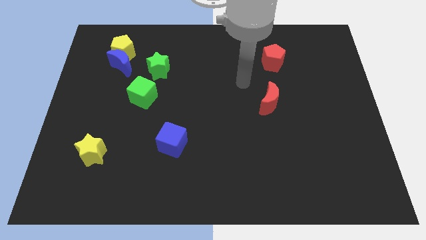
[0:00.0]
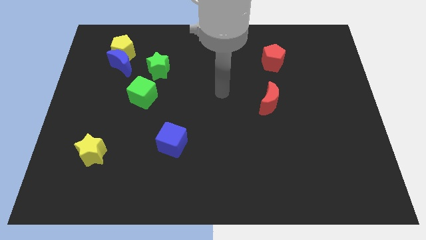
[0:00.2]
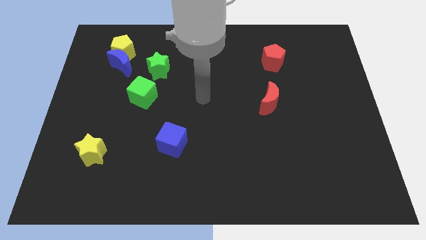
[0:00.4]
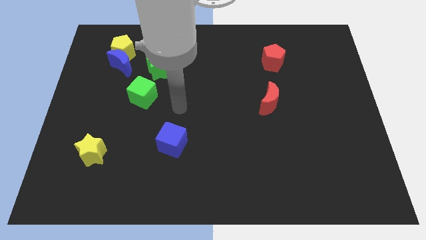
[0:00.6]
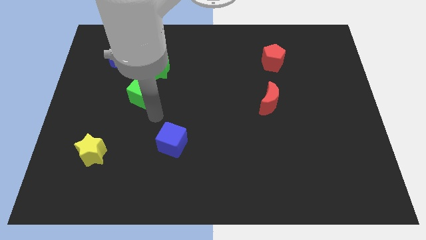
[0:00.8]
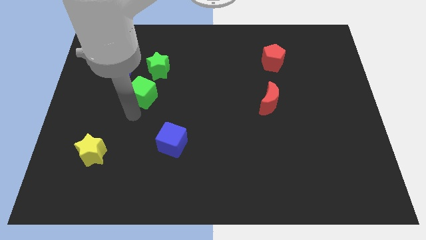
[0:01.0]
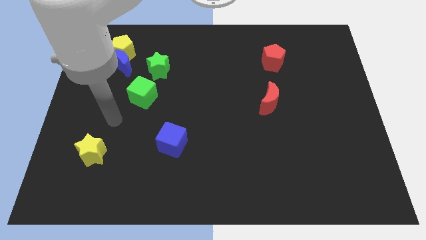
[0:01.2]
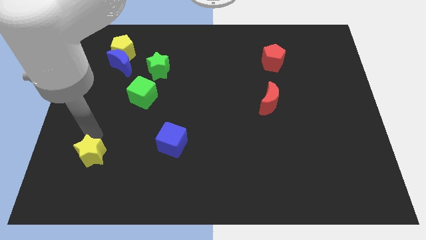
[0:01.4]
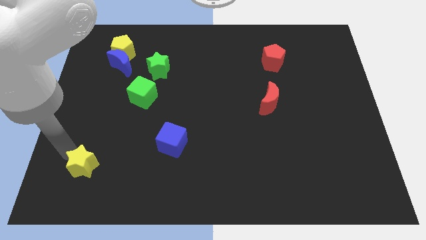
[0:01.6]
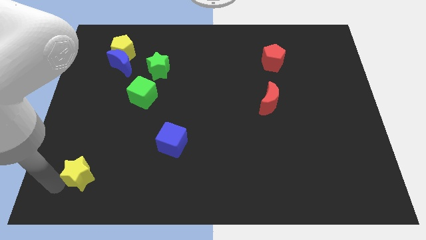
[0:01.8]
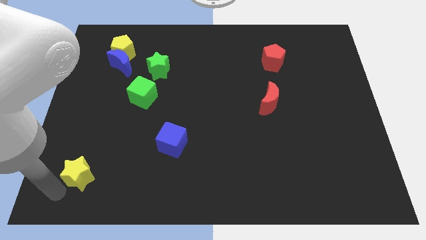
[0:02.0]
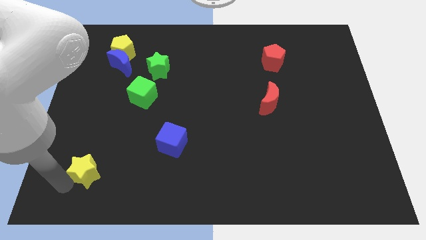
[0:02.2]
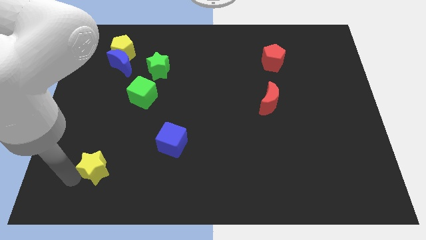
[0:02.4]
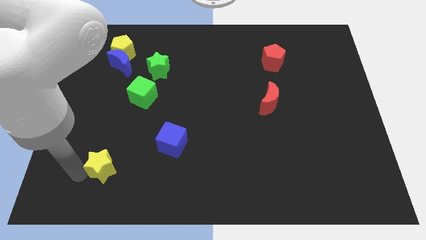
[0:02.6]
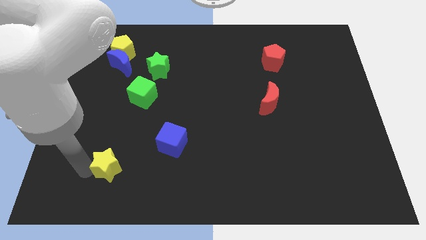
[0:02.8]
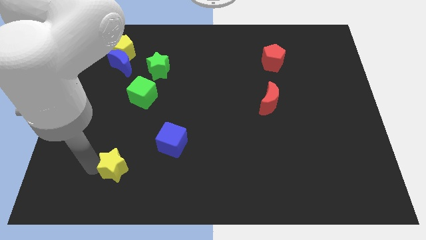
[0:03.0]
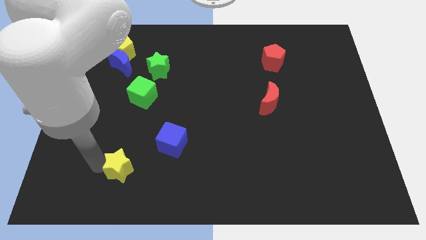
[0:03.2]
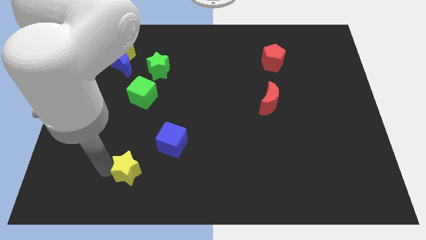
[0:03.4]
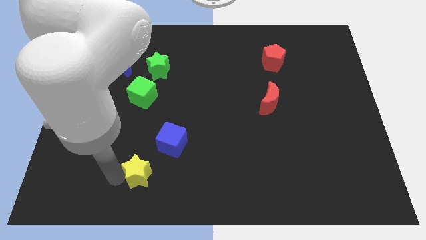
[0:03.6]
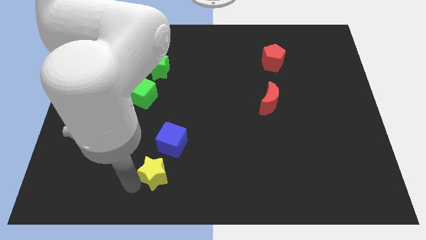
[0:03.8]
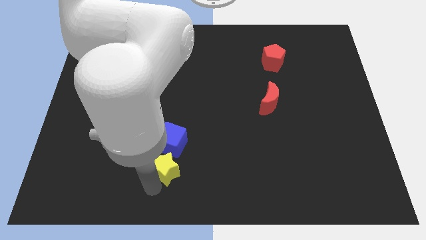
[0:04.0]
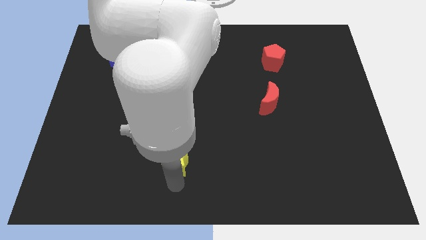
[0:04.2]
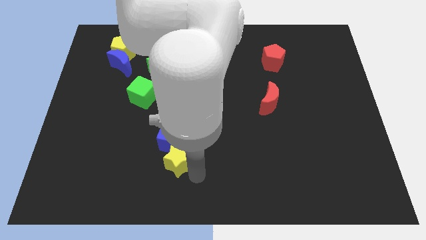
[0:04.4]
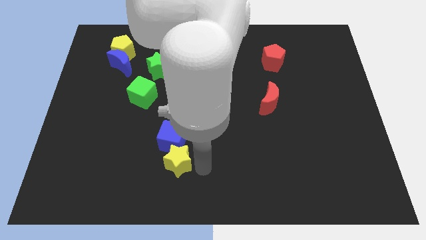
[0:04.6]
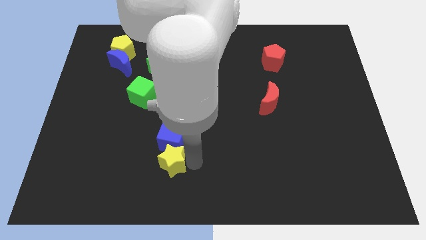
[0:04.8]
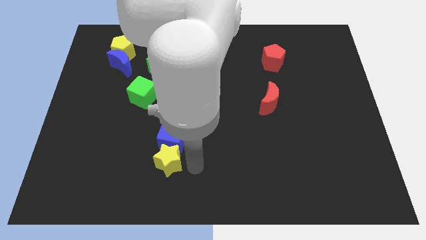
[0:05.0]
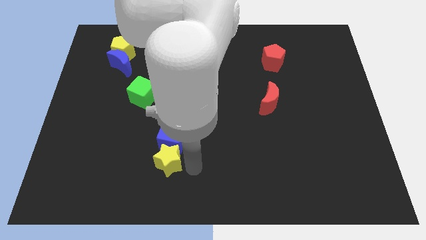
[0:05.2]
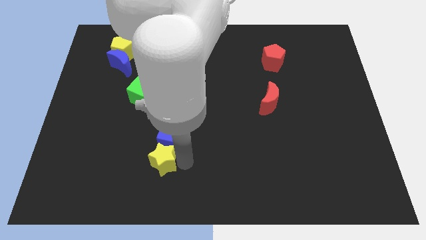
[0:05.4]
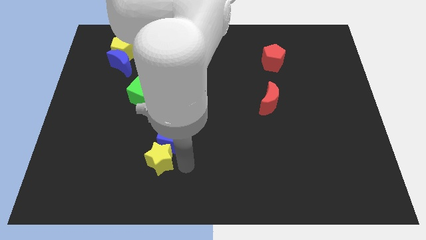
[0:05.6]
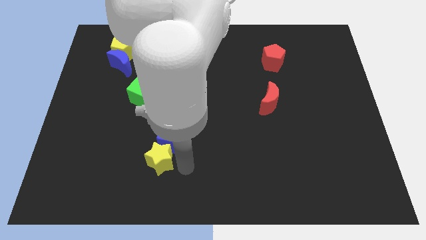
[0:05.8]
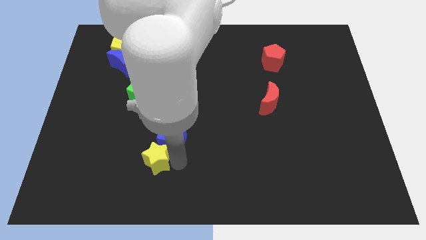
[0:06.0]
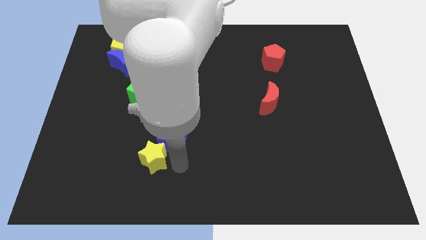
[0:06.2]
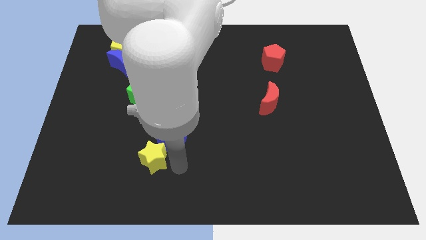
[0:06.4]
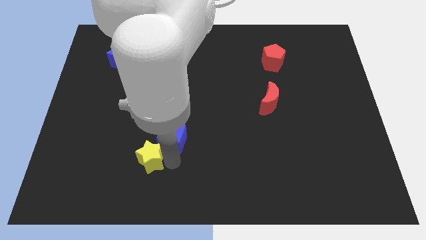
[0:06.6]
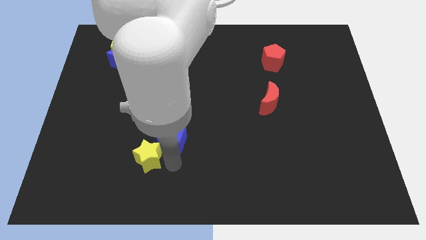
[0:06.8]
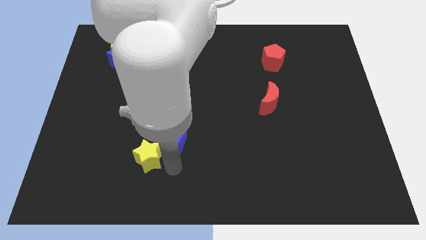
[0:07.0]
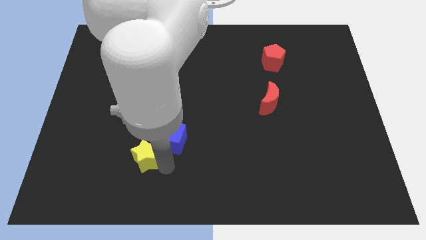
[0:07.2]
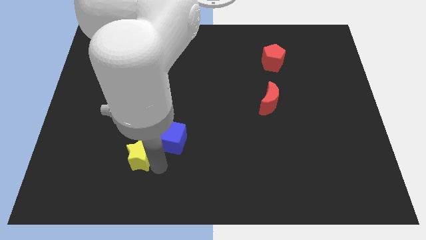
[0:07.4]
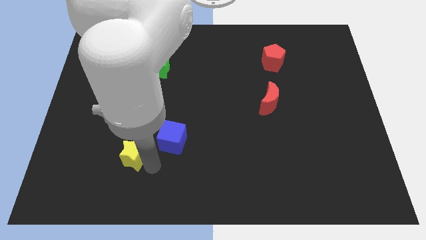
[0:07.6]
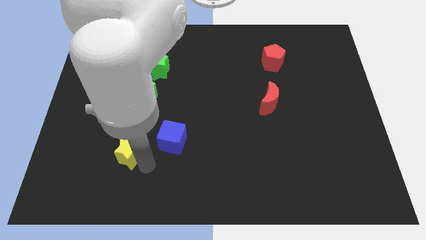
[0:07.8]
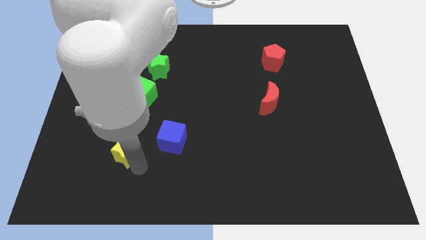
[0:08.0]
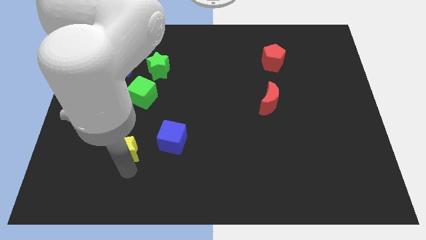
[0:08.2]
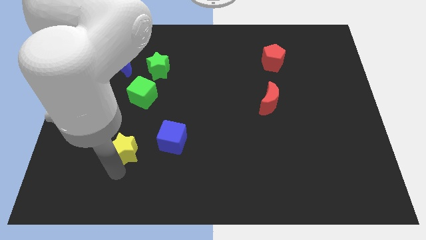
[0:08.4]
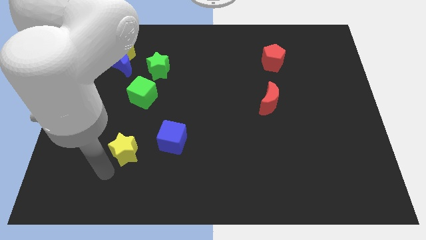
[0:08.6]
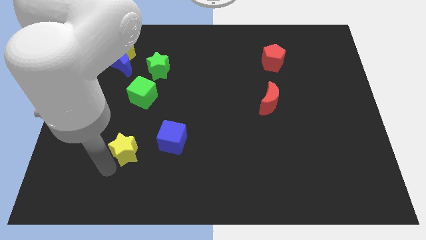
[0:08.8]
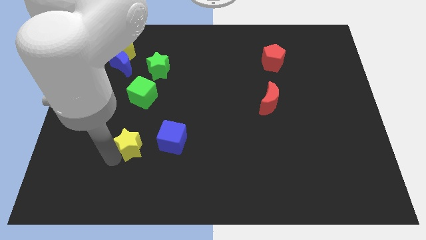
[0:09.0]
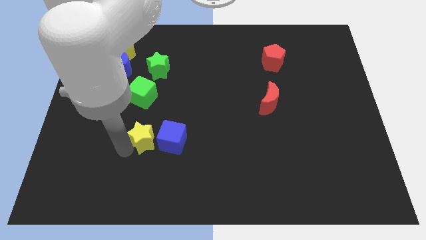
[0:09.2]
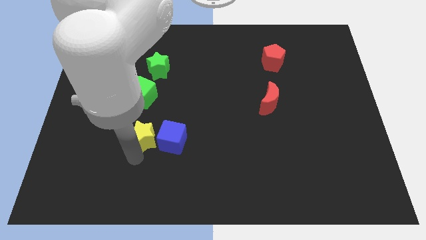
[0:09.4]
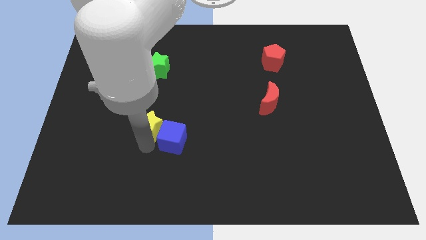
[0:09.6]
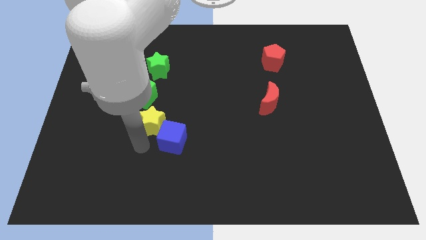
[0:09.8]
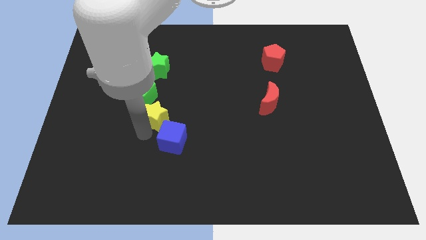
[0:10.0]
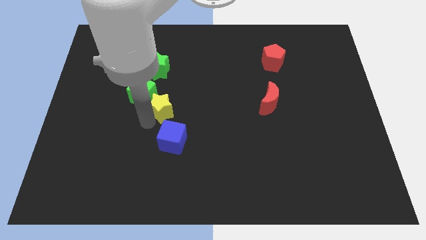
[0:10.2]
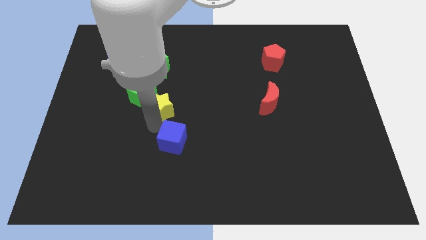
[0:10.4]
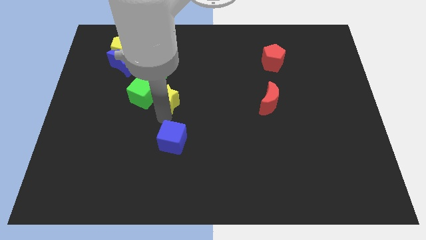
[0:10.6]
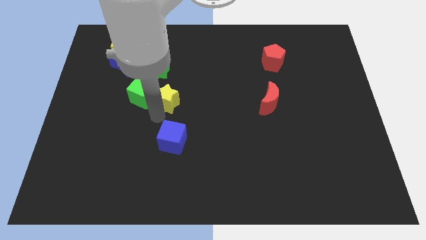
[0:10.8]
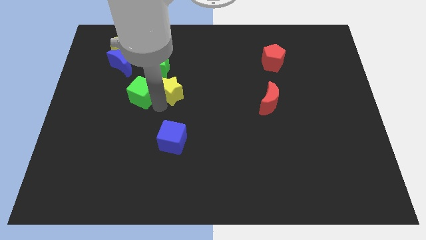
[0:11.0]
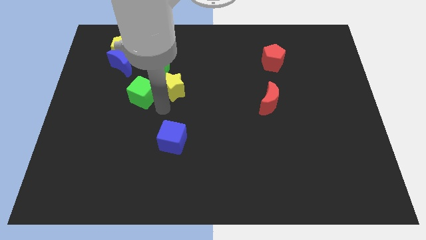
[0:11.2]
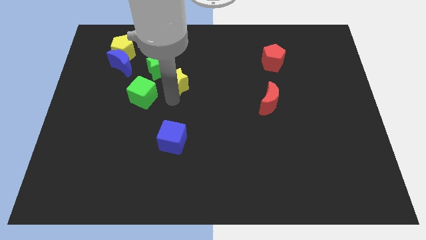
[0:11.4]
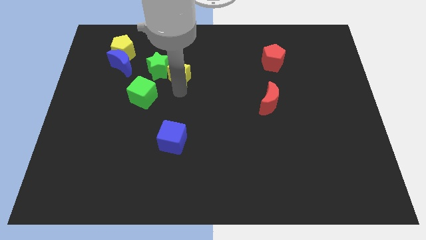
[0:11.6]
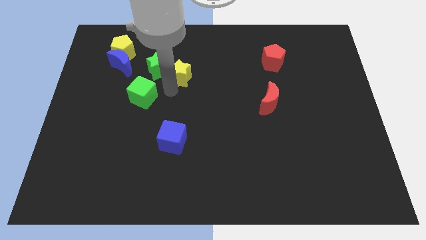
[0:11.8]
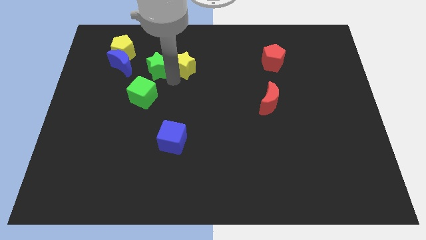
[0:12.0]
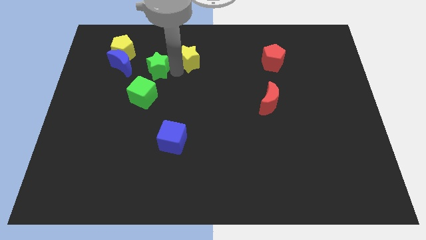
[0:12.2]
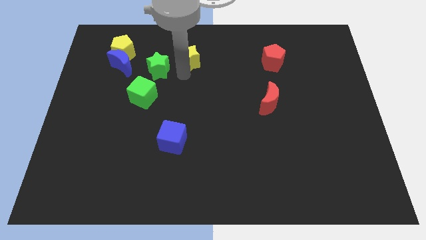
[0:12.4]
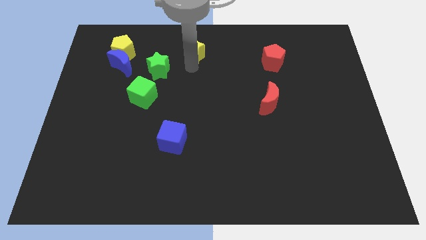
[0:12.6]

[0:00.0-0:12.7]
move the yellow star to the top side
